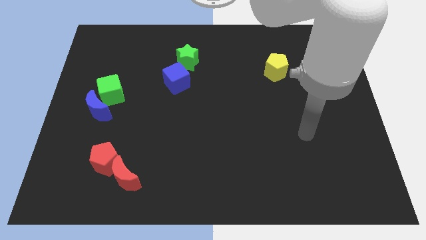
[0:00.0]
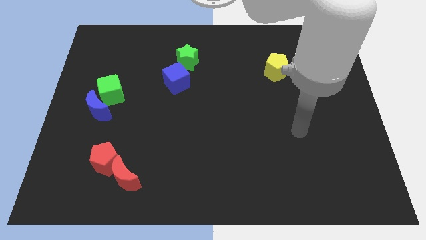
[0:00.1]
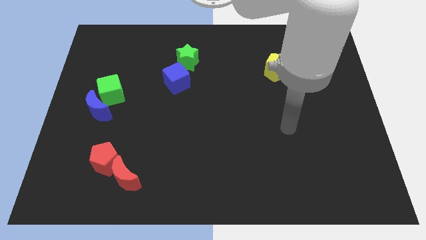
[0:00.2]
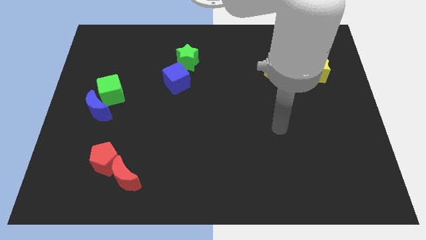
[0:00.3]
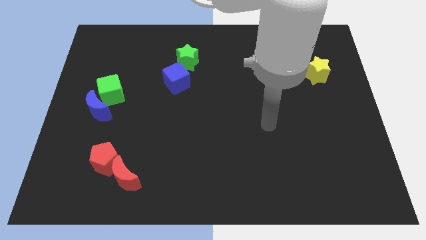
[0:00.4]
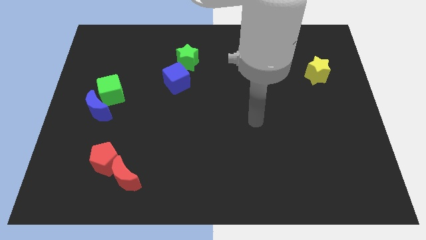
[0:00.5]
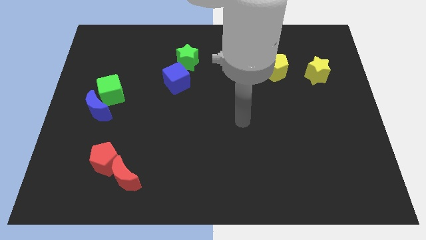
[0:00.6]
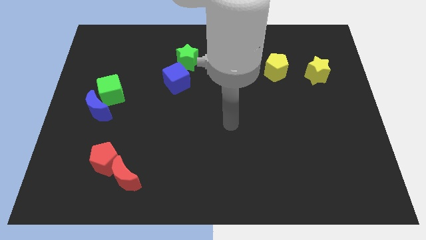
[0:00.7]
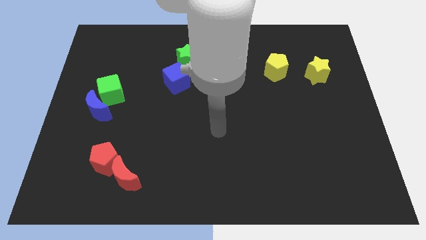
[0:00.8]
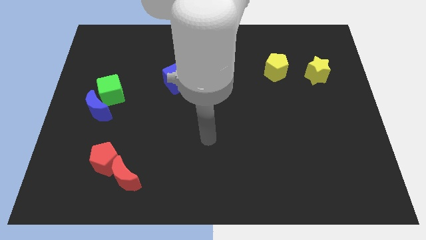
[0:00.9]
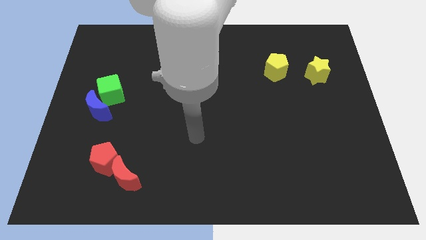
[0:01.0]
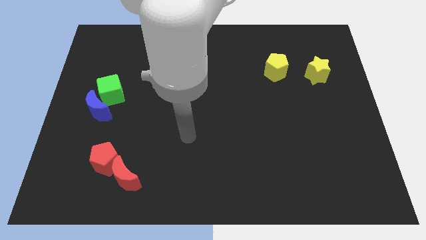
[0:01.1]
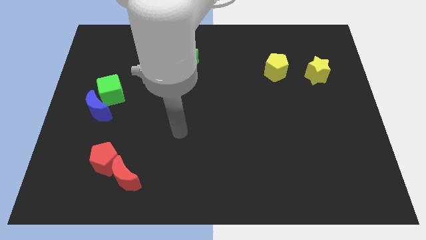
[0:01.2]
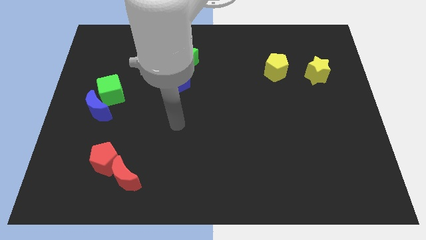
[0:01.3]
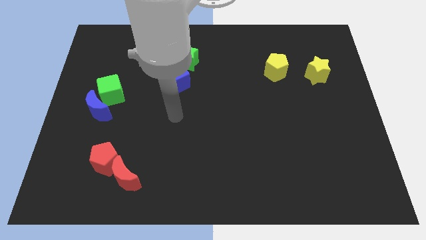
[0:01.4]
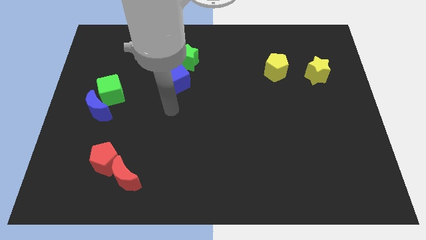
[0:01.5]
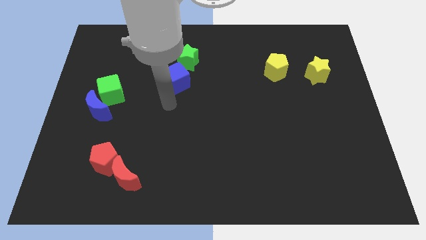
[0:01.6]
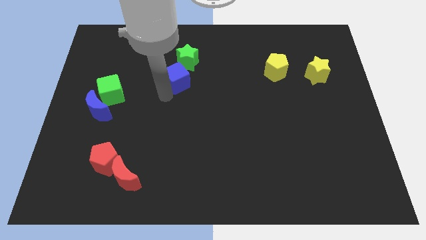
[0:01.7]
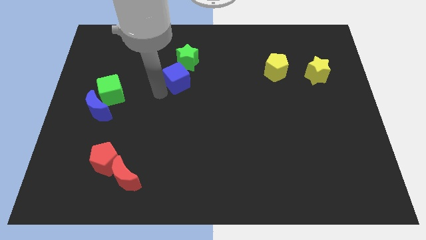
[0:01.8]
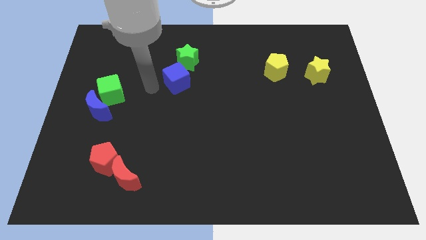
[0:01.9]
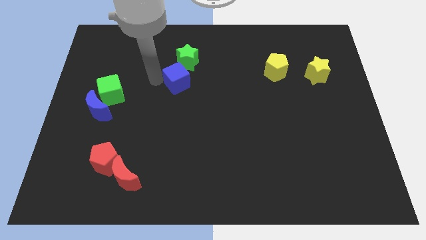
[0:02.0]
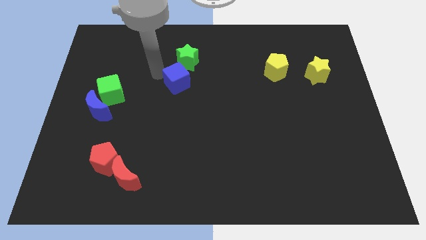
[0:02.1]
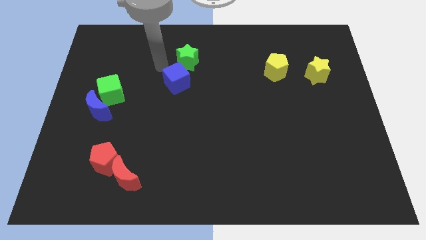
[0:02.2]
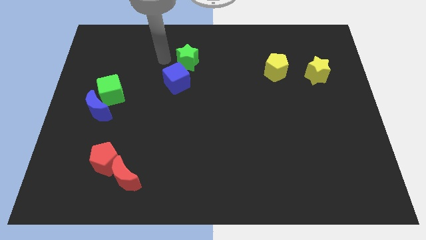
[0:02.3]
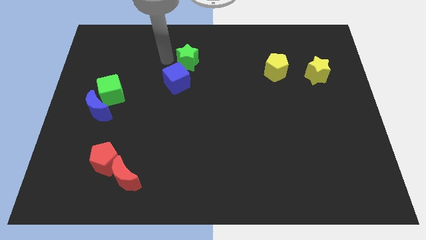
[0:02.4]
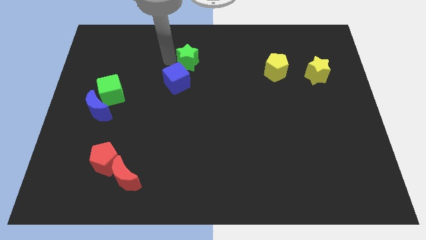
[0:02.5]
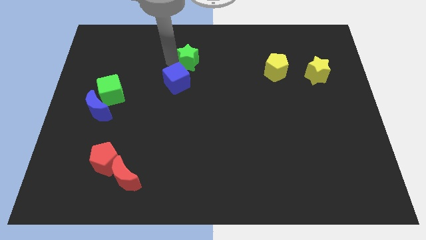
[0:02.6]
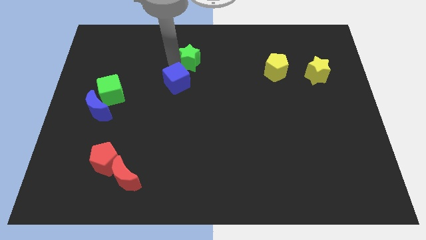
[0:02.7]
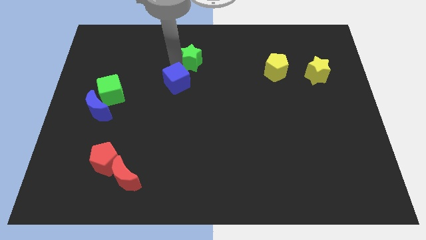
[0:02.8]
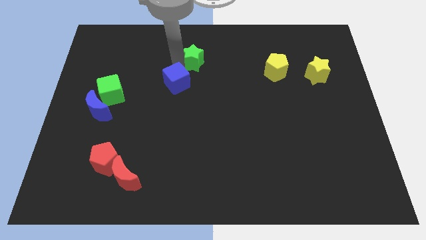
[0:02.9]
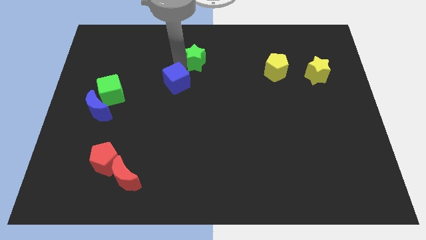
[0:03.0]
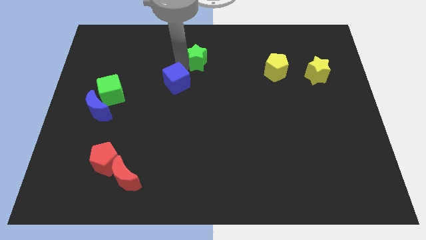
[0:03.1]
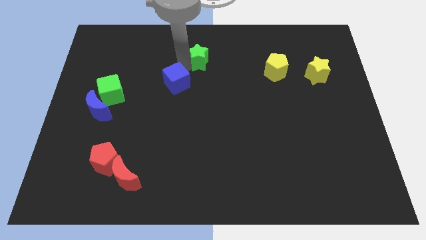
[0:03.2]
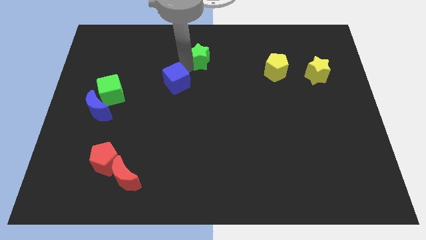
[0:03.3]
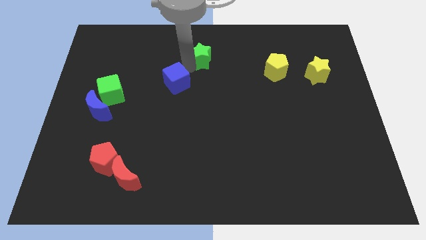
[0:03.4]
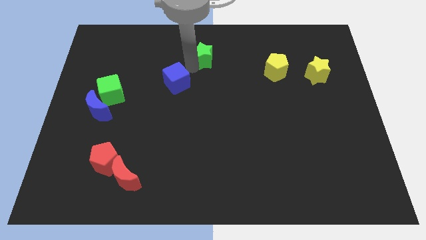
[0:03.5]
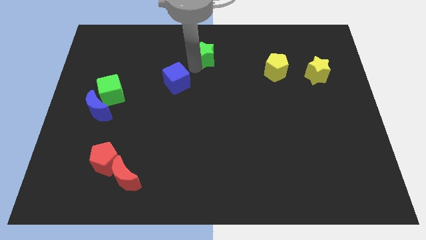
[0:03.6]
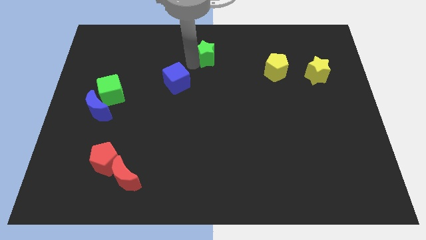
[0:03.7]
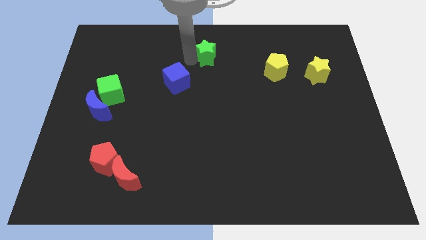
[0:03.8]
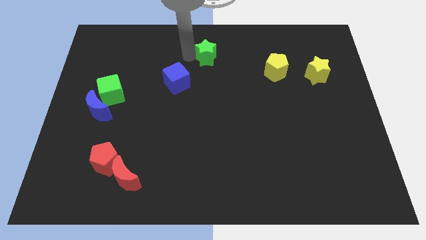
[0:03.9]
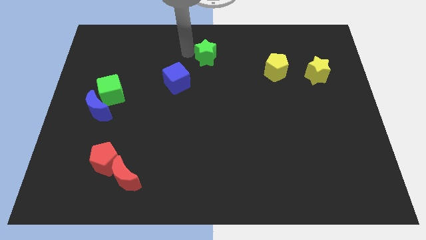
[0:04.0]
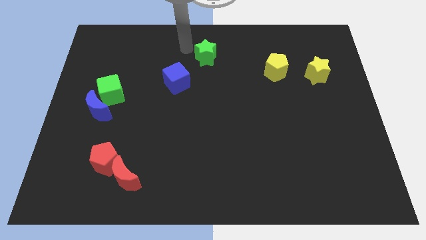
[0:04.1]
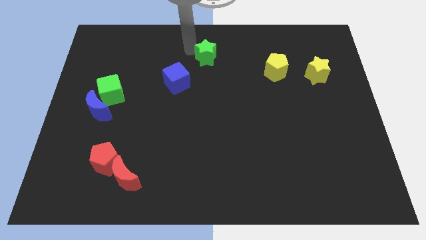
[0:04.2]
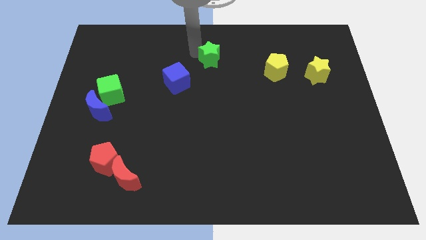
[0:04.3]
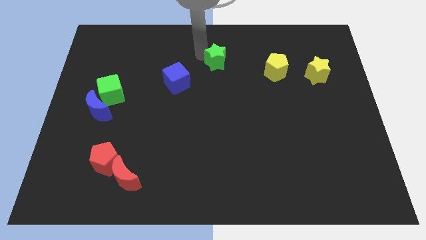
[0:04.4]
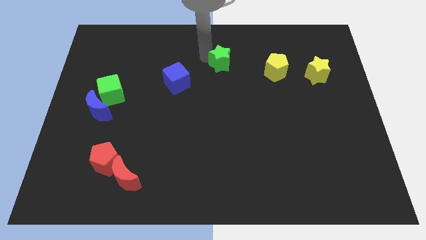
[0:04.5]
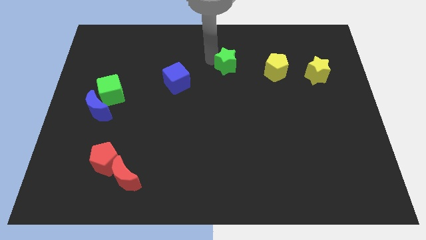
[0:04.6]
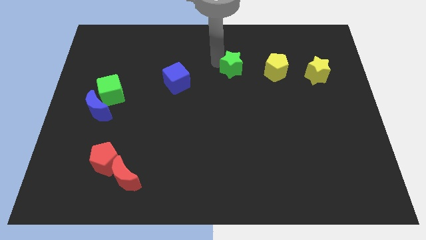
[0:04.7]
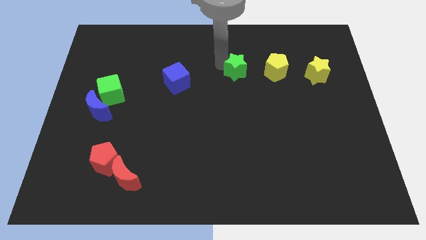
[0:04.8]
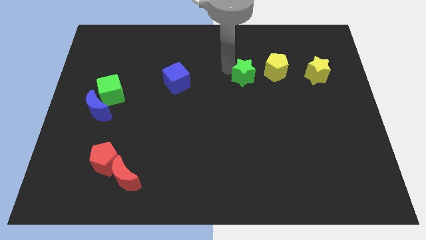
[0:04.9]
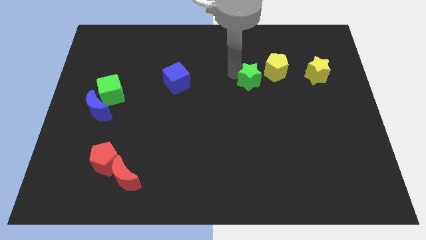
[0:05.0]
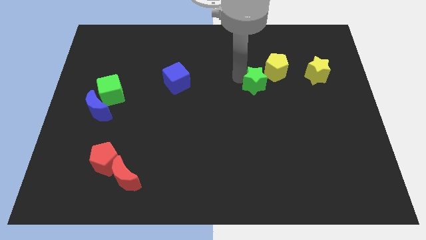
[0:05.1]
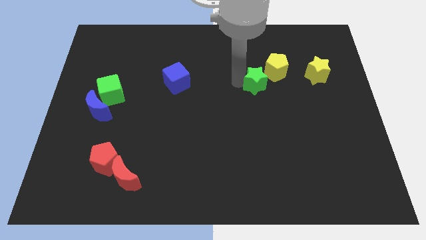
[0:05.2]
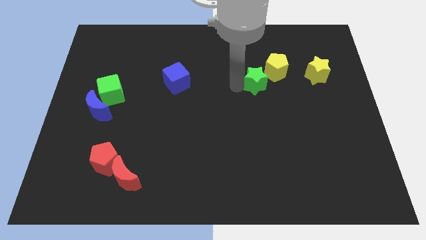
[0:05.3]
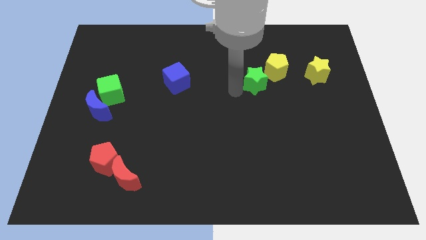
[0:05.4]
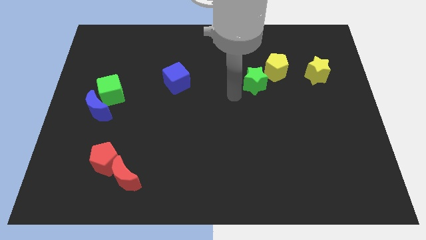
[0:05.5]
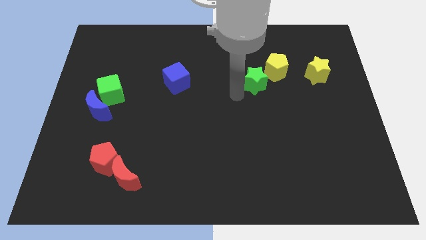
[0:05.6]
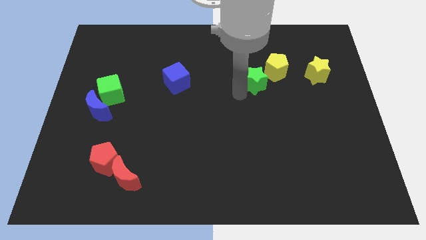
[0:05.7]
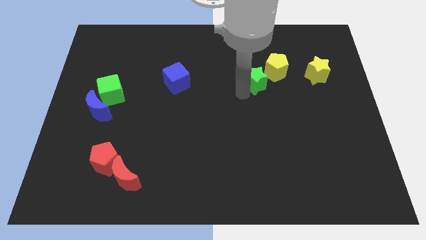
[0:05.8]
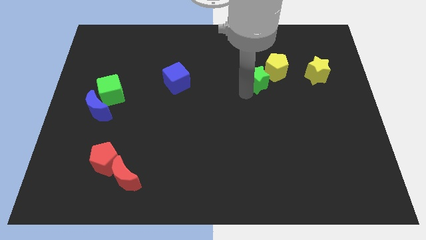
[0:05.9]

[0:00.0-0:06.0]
push the green star to the left side of the yellow star
